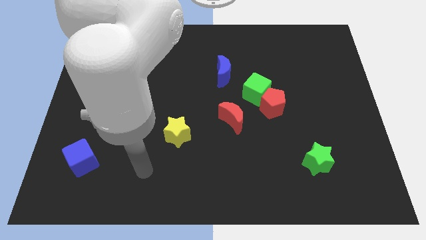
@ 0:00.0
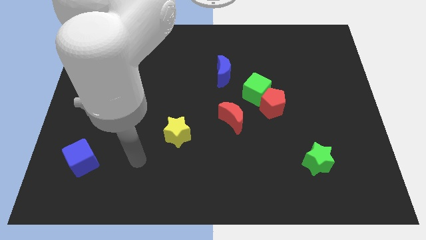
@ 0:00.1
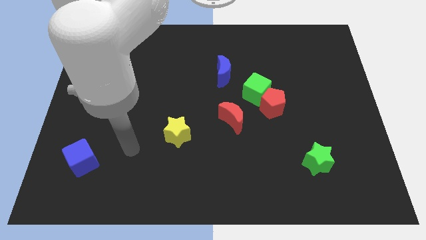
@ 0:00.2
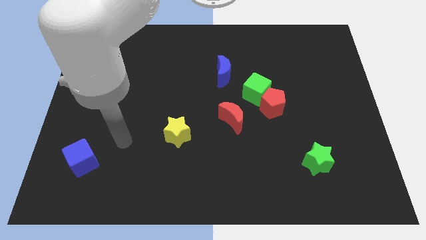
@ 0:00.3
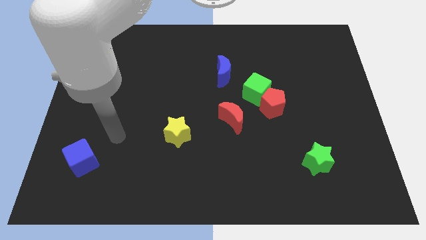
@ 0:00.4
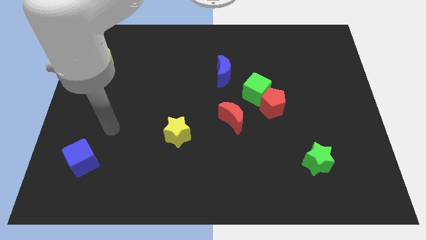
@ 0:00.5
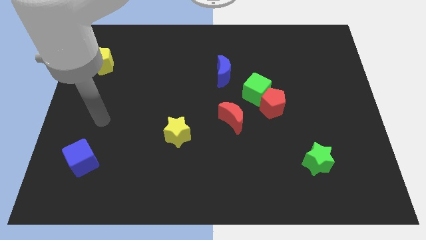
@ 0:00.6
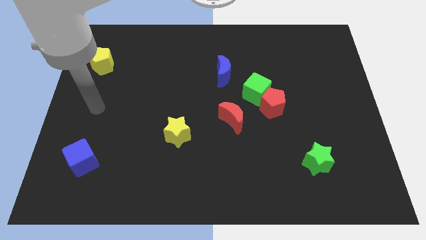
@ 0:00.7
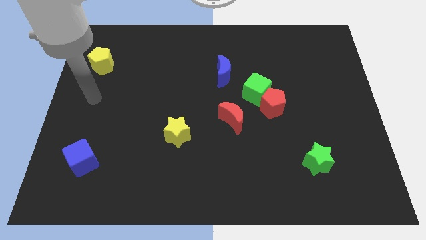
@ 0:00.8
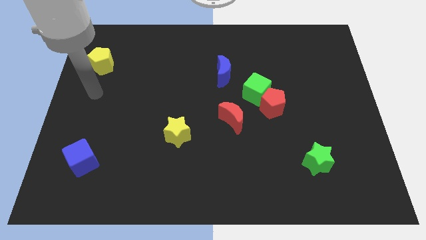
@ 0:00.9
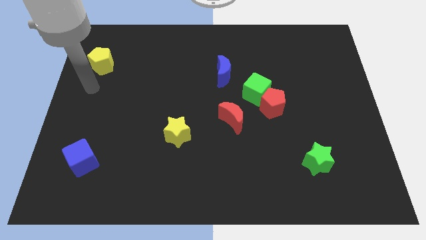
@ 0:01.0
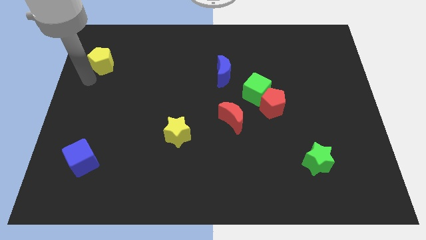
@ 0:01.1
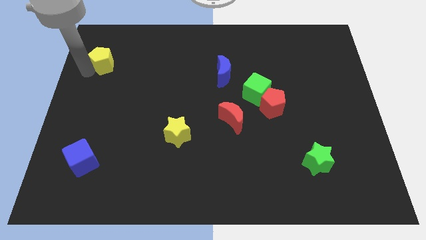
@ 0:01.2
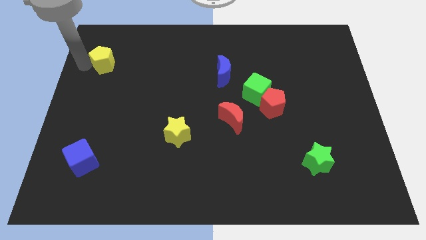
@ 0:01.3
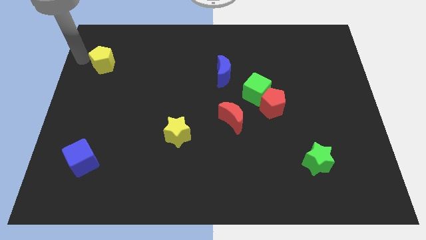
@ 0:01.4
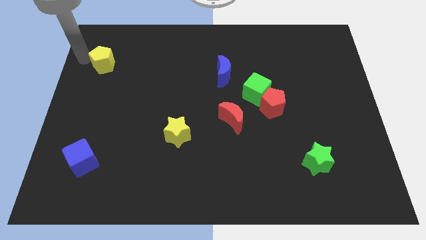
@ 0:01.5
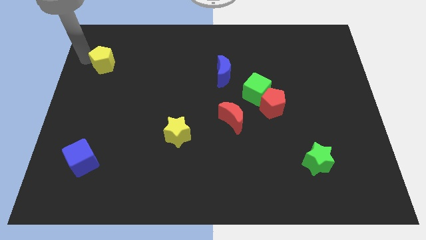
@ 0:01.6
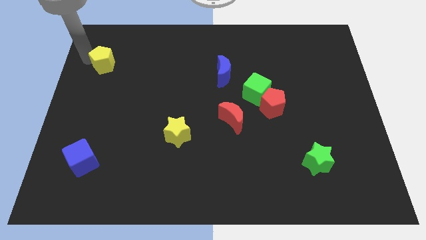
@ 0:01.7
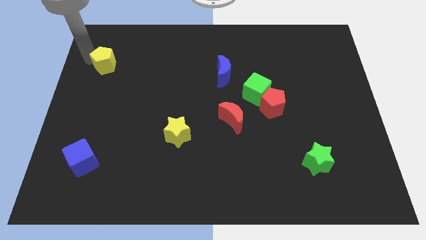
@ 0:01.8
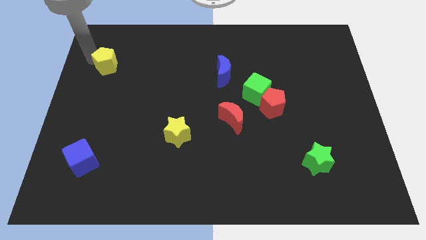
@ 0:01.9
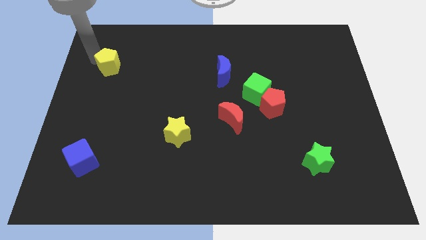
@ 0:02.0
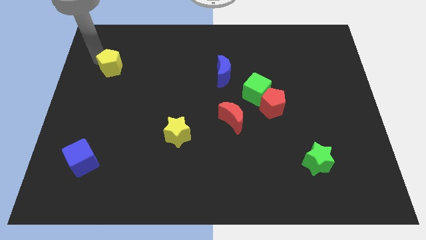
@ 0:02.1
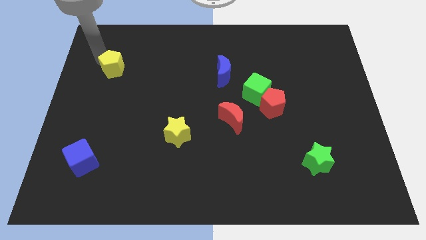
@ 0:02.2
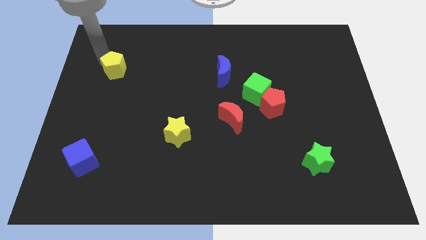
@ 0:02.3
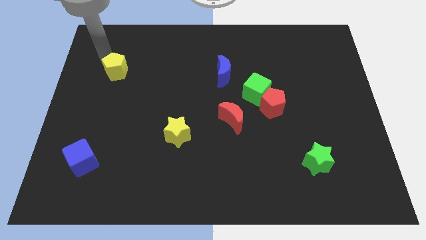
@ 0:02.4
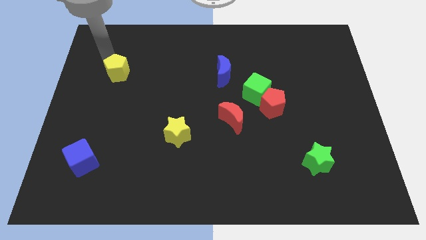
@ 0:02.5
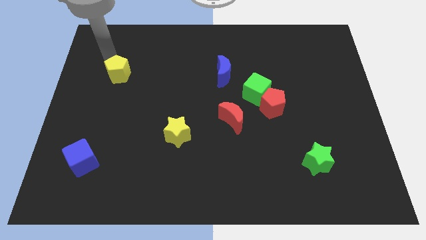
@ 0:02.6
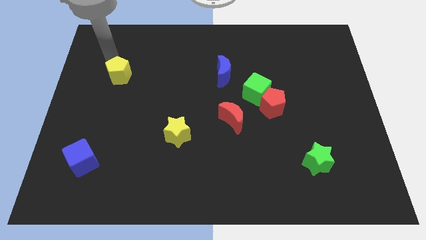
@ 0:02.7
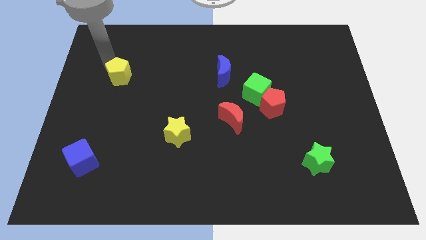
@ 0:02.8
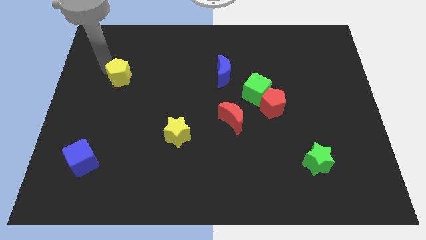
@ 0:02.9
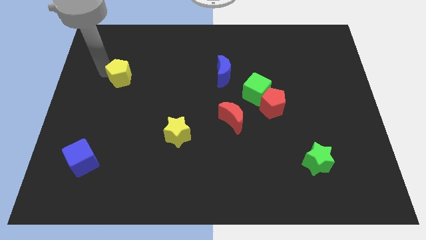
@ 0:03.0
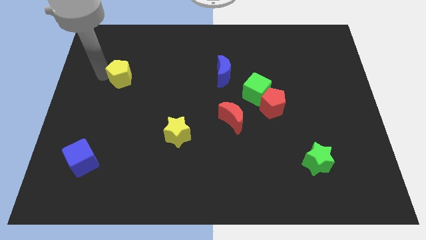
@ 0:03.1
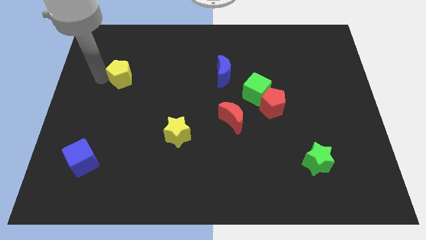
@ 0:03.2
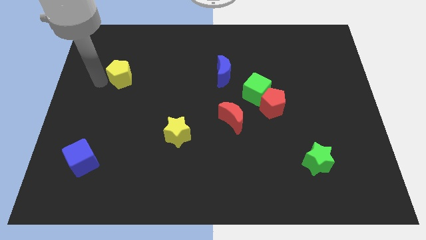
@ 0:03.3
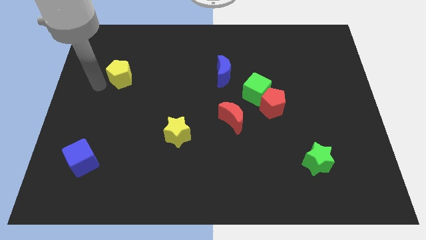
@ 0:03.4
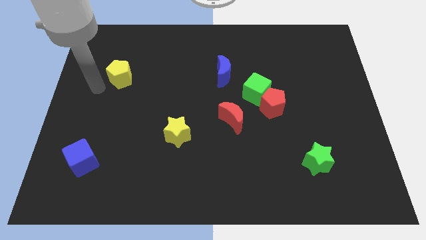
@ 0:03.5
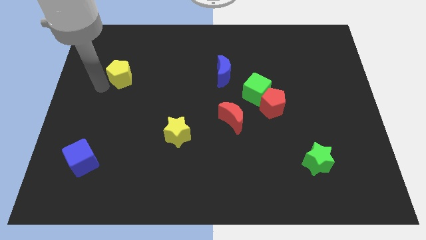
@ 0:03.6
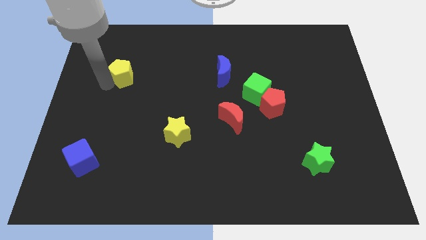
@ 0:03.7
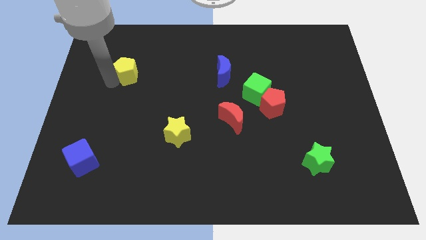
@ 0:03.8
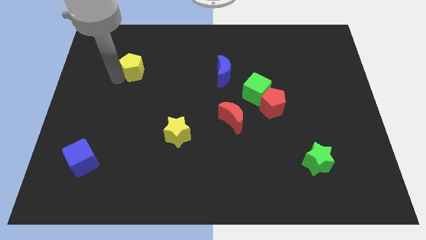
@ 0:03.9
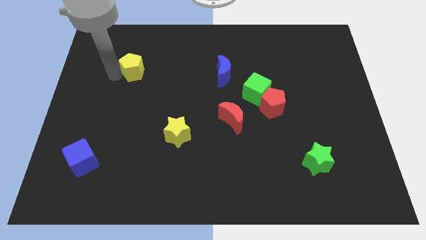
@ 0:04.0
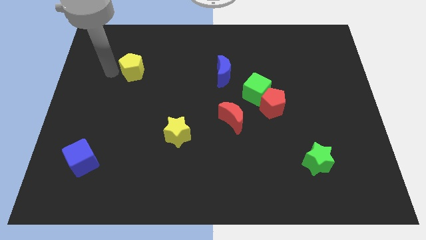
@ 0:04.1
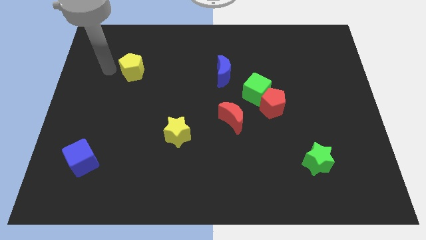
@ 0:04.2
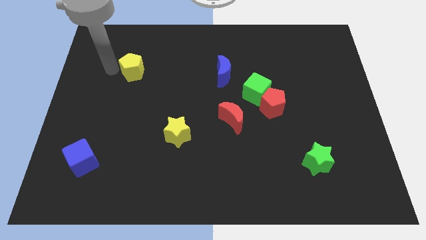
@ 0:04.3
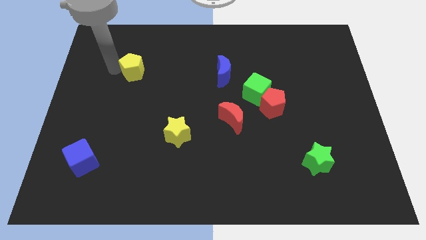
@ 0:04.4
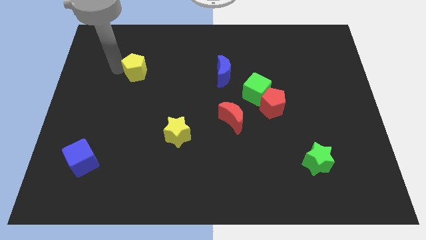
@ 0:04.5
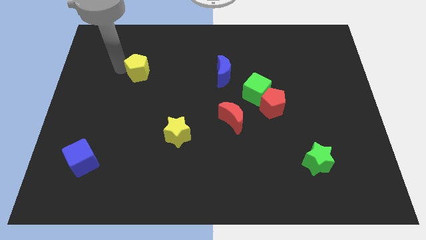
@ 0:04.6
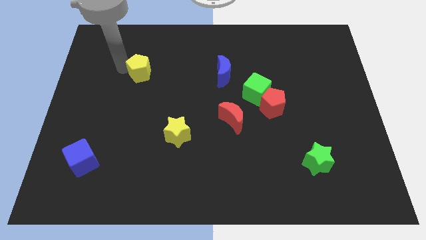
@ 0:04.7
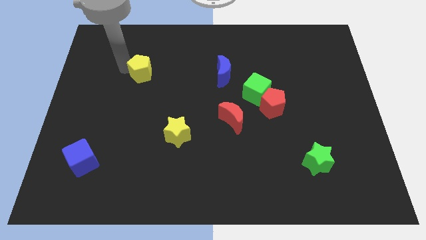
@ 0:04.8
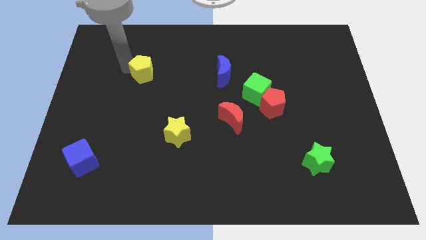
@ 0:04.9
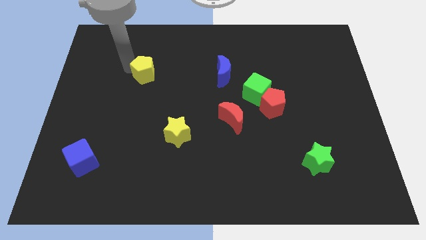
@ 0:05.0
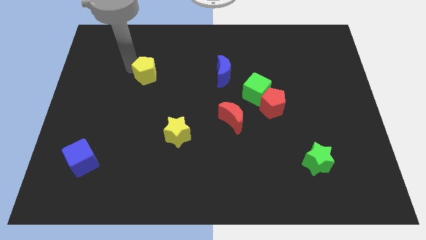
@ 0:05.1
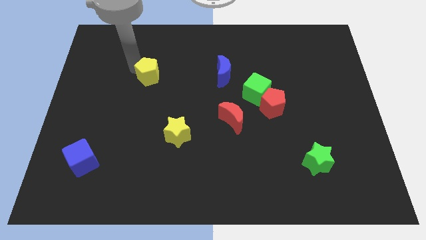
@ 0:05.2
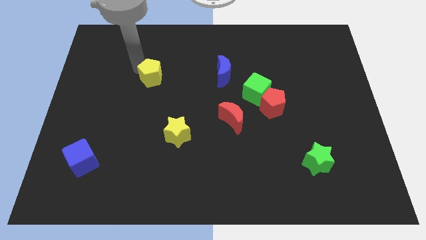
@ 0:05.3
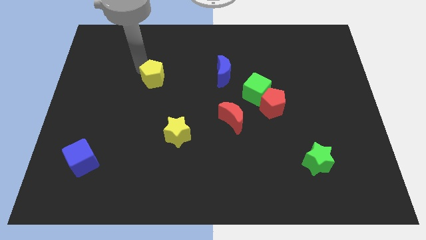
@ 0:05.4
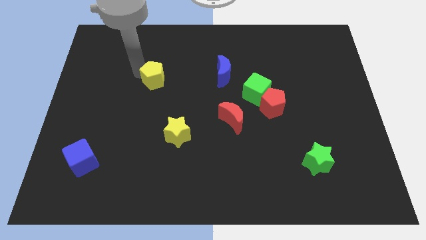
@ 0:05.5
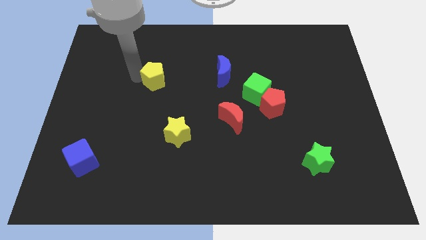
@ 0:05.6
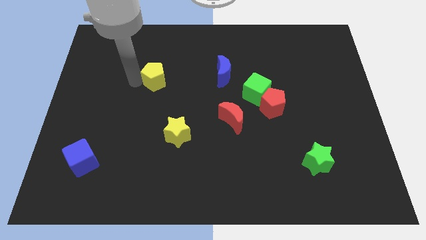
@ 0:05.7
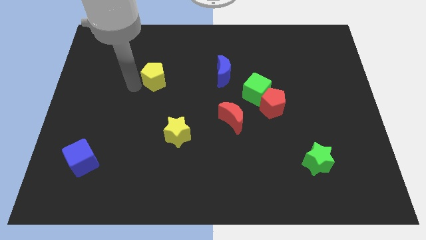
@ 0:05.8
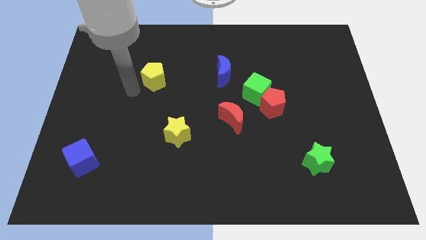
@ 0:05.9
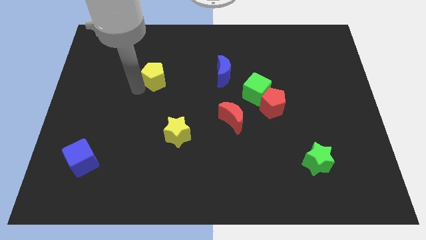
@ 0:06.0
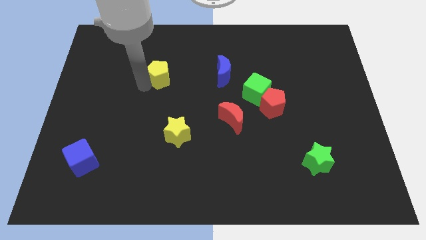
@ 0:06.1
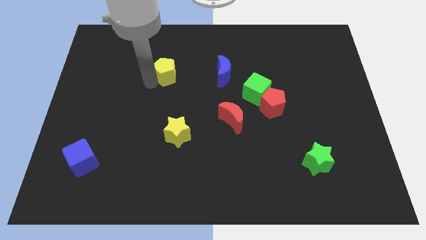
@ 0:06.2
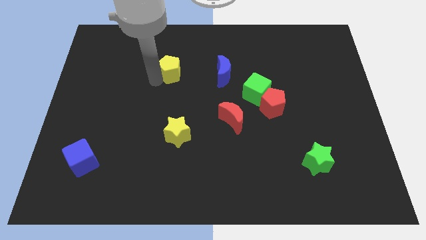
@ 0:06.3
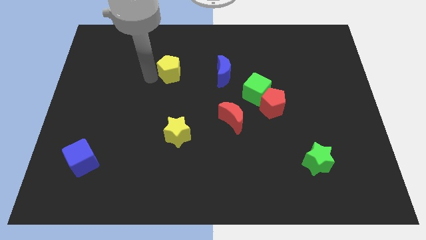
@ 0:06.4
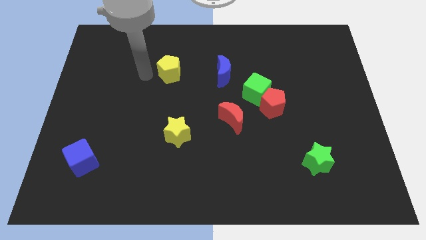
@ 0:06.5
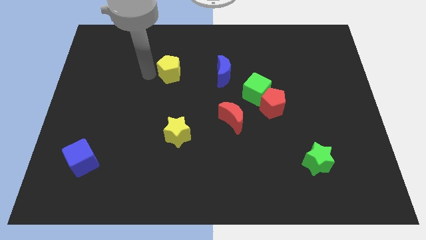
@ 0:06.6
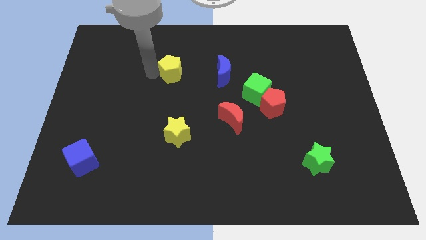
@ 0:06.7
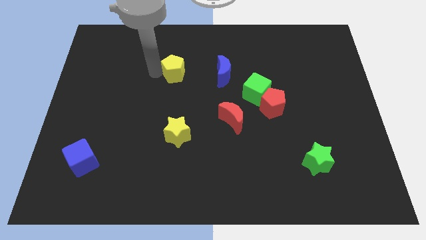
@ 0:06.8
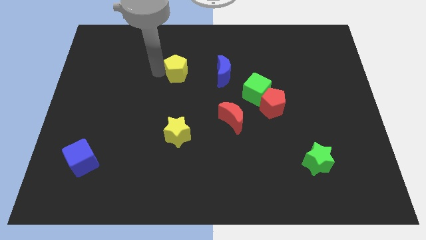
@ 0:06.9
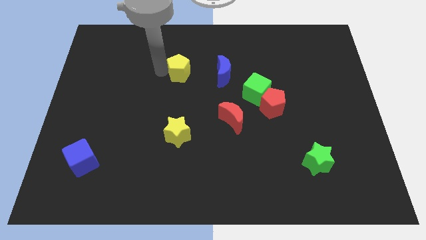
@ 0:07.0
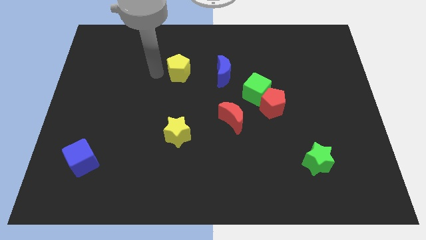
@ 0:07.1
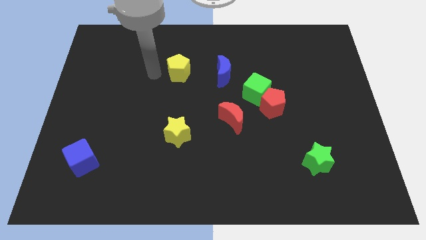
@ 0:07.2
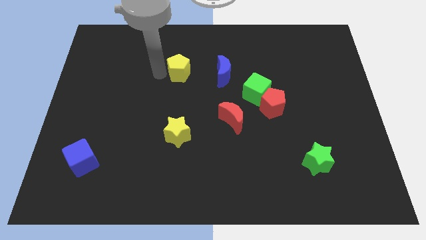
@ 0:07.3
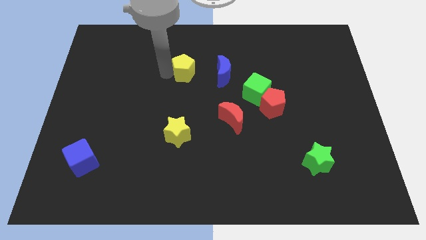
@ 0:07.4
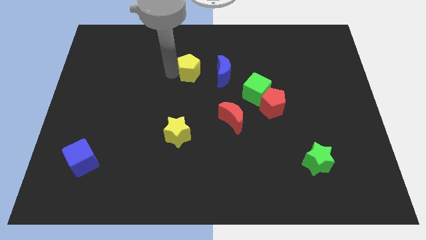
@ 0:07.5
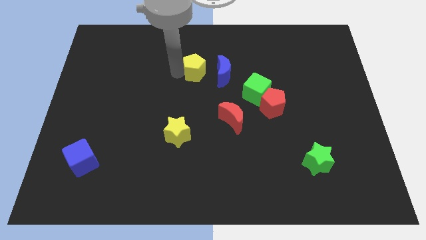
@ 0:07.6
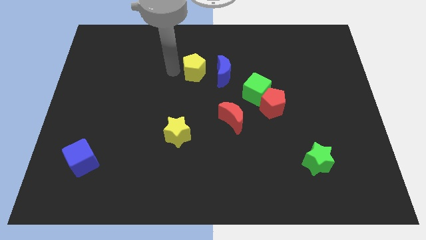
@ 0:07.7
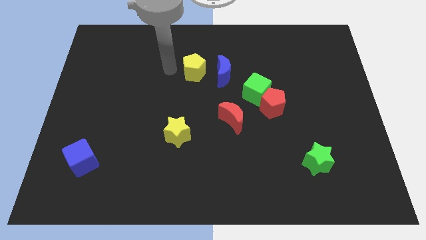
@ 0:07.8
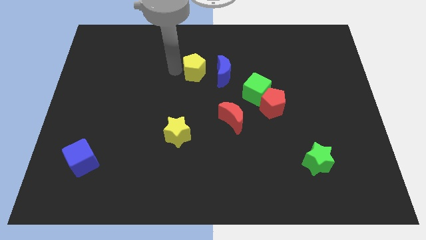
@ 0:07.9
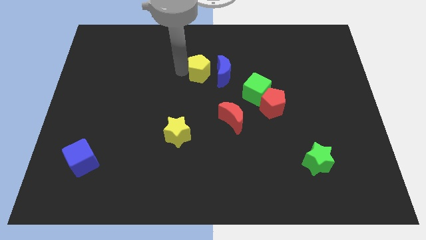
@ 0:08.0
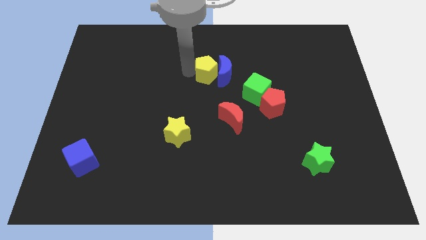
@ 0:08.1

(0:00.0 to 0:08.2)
slide the yellow pentagon to the blue moon
